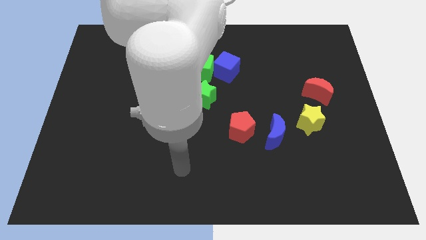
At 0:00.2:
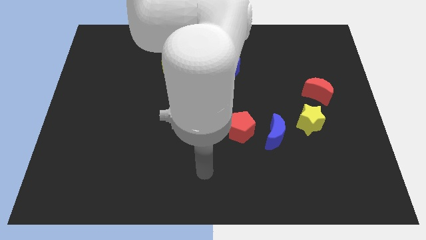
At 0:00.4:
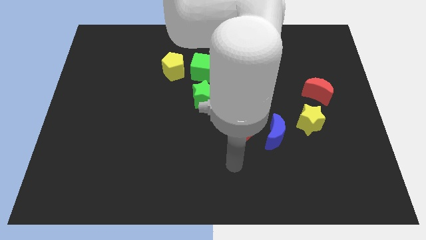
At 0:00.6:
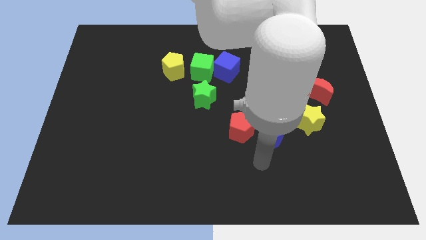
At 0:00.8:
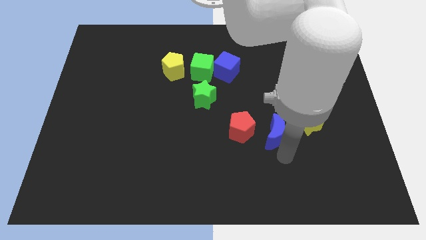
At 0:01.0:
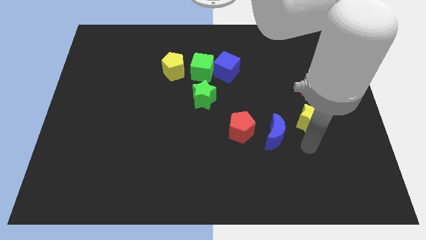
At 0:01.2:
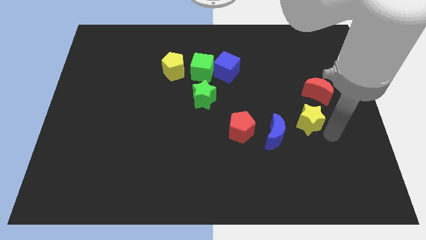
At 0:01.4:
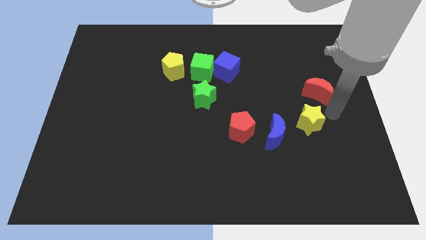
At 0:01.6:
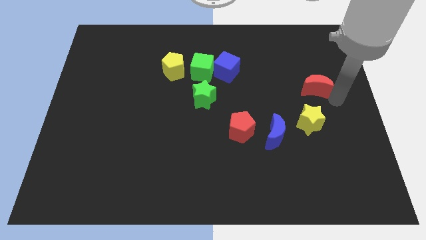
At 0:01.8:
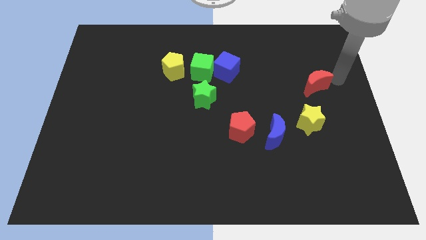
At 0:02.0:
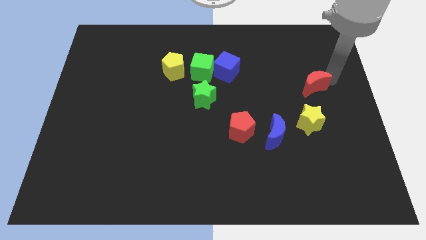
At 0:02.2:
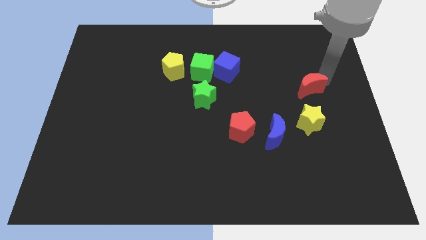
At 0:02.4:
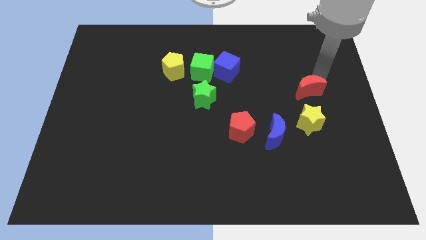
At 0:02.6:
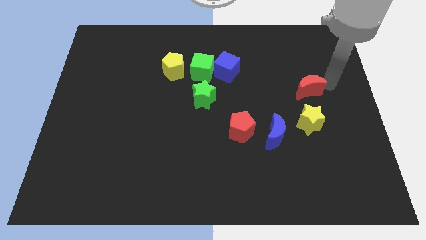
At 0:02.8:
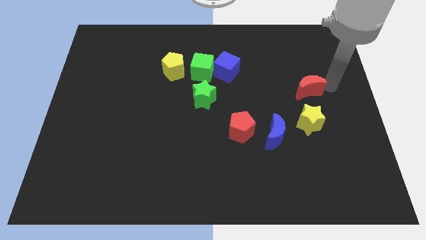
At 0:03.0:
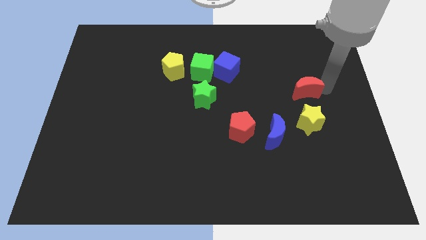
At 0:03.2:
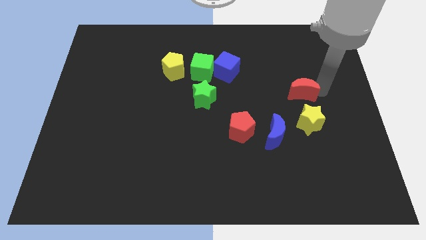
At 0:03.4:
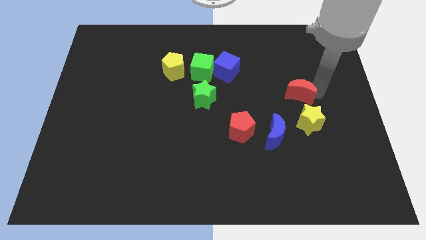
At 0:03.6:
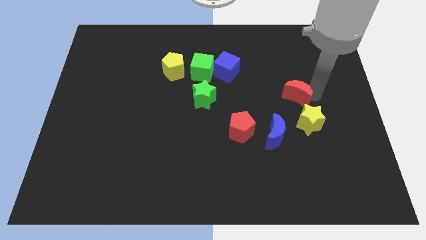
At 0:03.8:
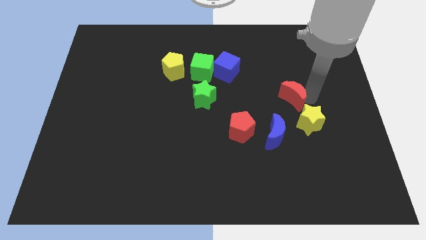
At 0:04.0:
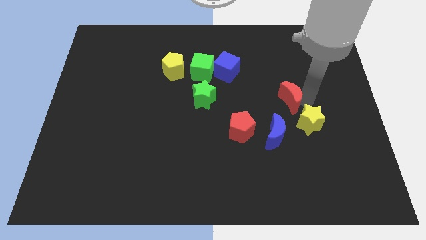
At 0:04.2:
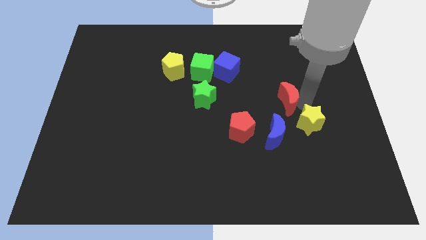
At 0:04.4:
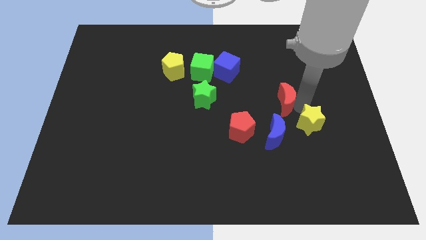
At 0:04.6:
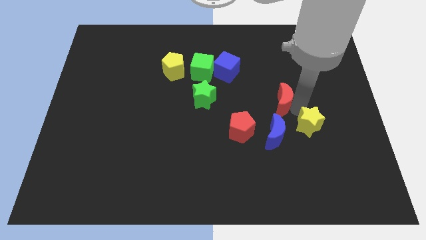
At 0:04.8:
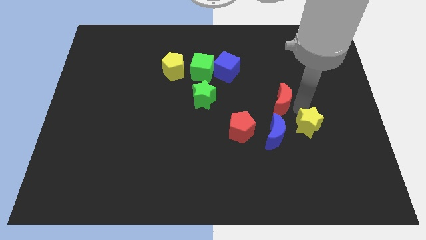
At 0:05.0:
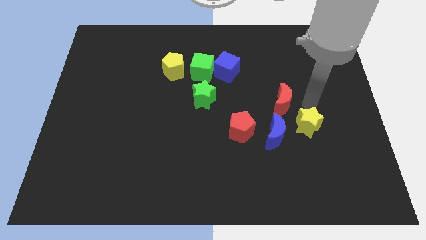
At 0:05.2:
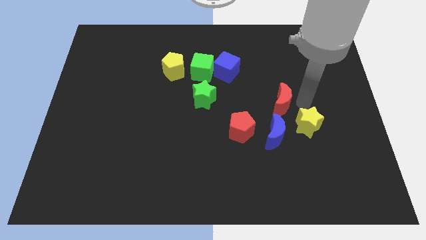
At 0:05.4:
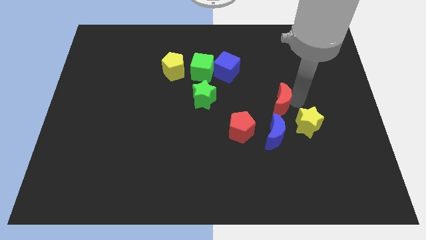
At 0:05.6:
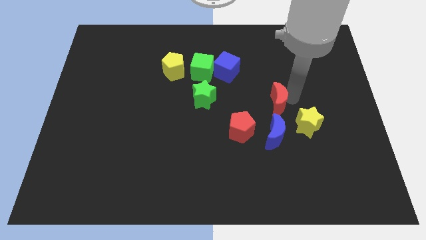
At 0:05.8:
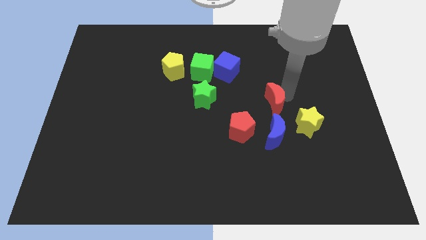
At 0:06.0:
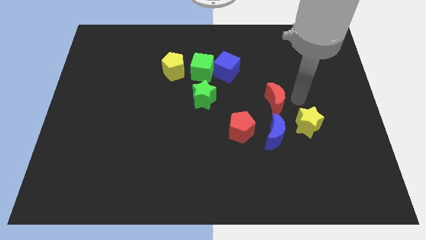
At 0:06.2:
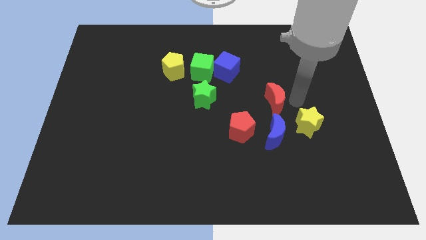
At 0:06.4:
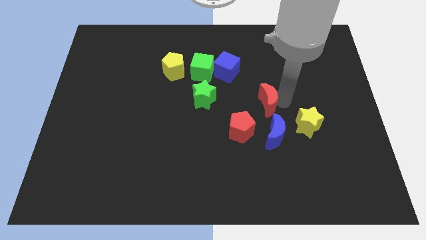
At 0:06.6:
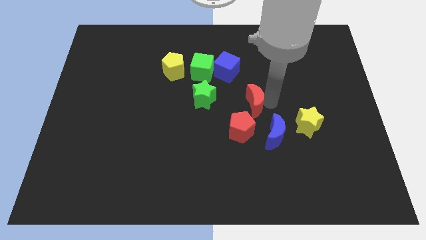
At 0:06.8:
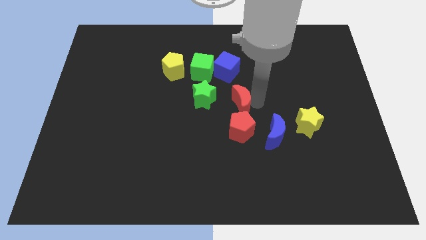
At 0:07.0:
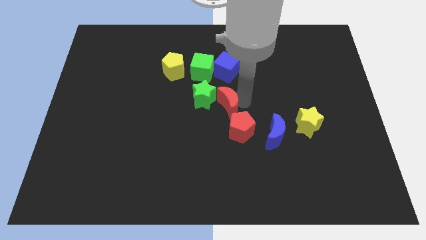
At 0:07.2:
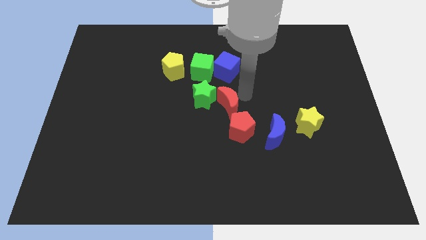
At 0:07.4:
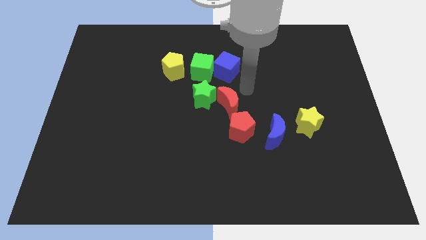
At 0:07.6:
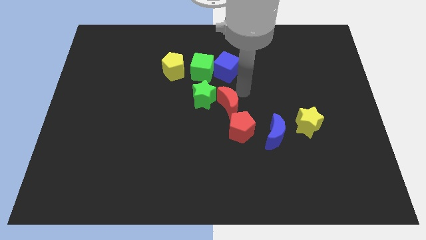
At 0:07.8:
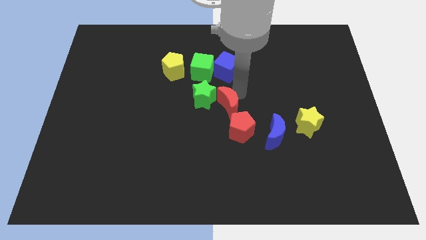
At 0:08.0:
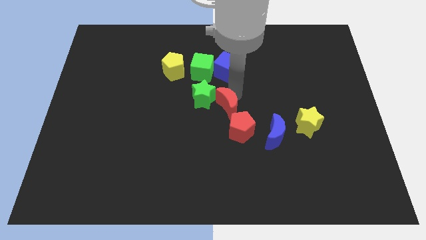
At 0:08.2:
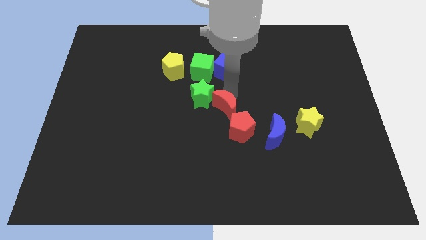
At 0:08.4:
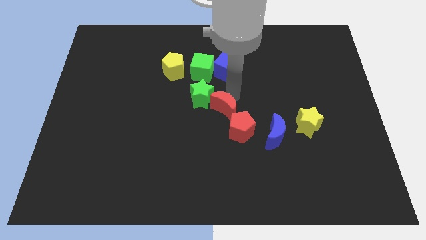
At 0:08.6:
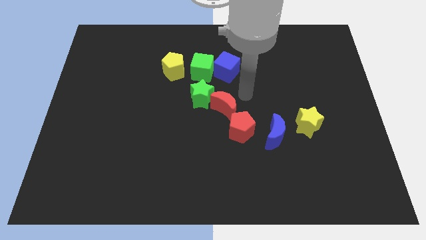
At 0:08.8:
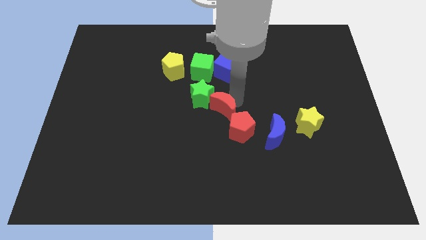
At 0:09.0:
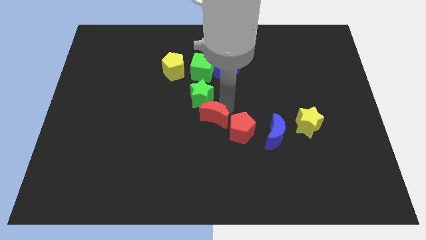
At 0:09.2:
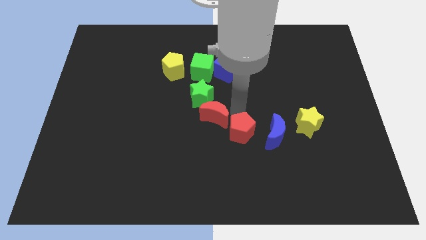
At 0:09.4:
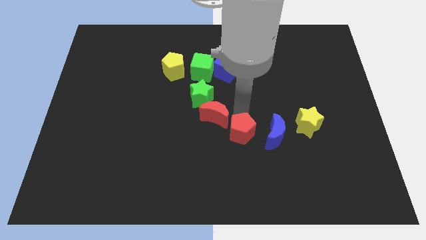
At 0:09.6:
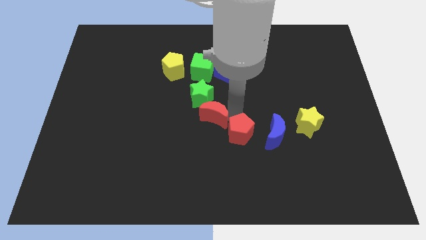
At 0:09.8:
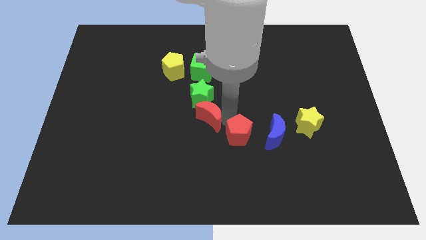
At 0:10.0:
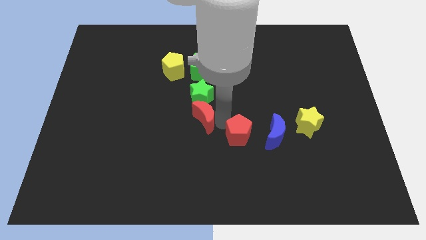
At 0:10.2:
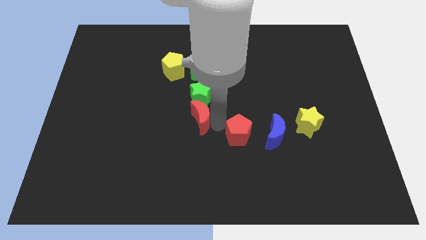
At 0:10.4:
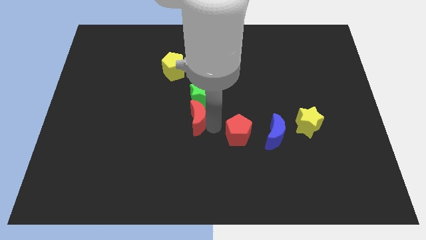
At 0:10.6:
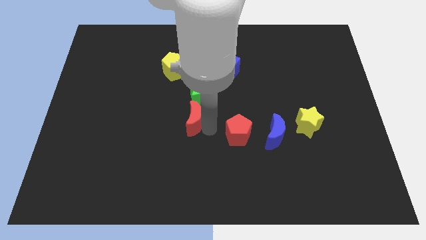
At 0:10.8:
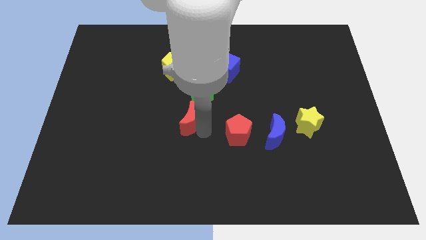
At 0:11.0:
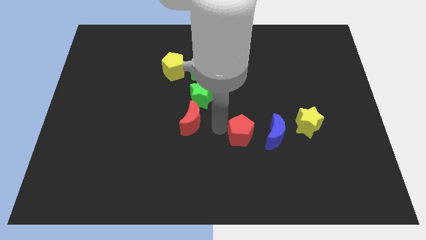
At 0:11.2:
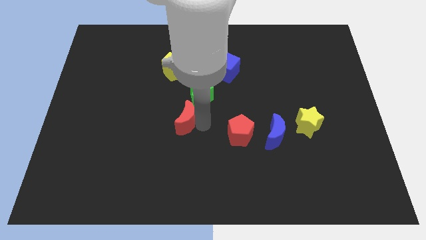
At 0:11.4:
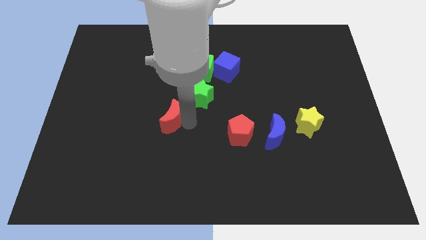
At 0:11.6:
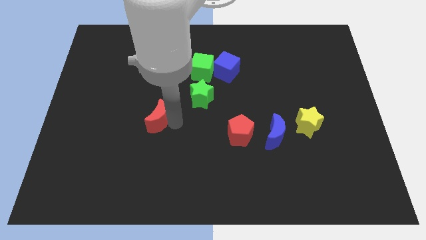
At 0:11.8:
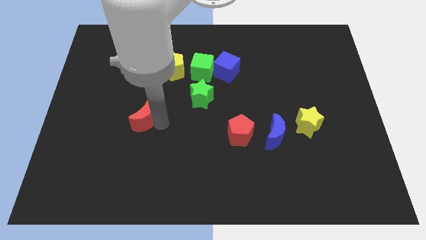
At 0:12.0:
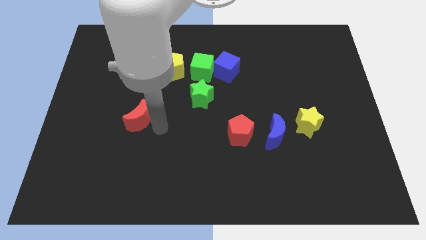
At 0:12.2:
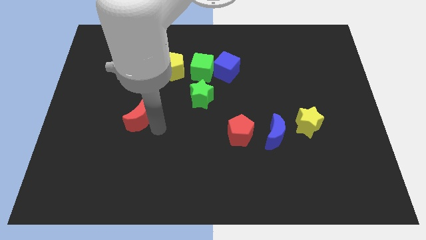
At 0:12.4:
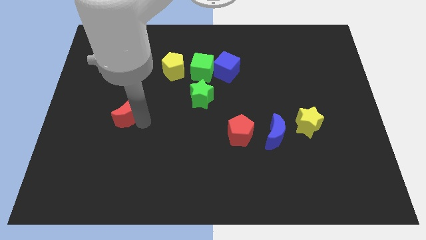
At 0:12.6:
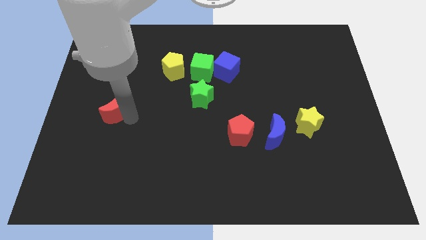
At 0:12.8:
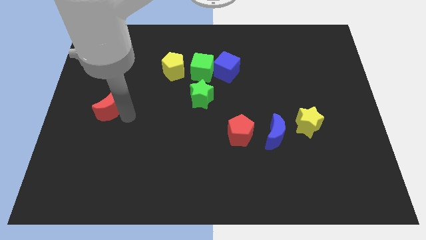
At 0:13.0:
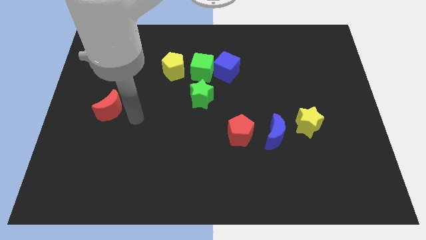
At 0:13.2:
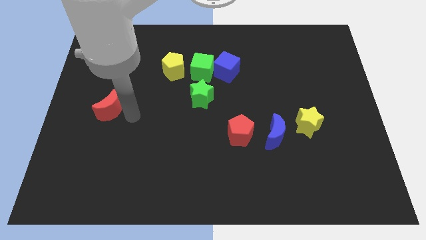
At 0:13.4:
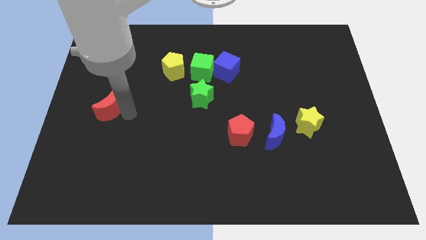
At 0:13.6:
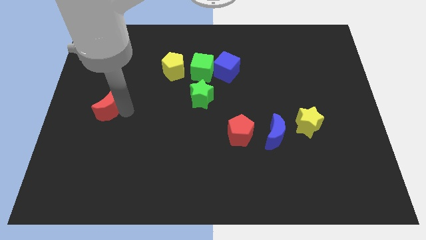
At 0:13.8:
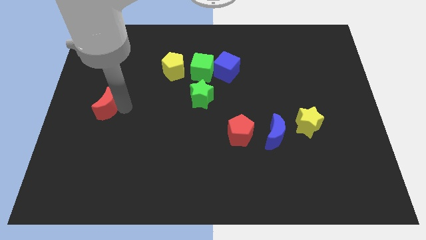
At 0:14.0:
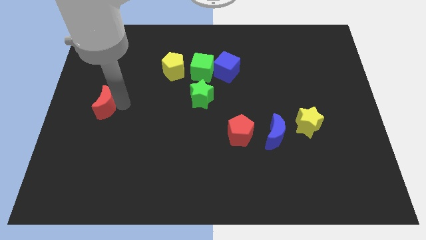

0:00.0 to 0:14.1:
put the red moon to the center left
